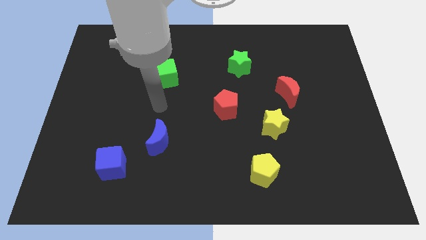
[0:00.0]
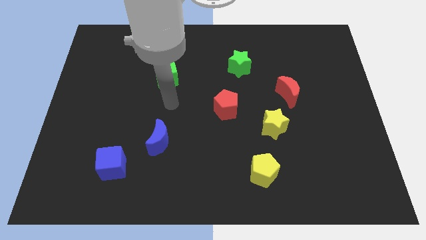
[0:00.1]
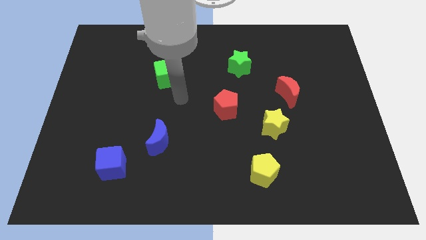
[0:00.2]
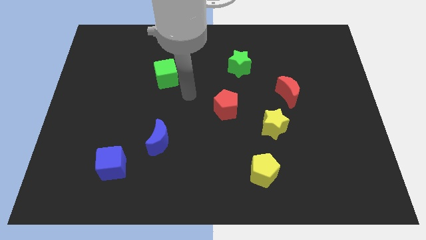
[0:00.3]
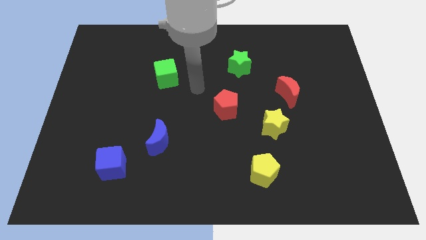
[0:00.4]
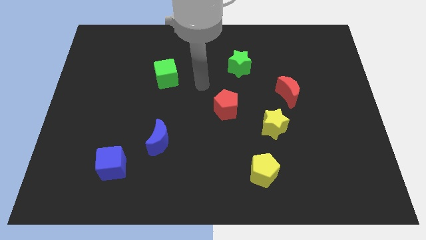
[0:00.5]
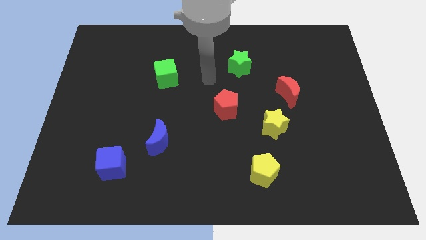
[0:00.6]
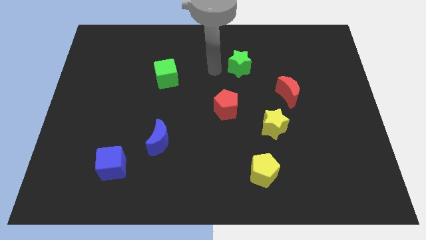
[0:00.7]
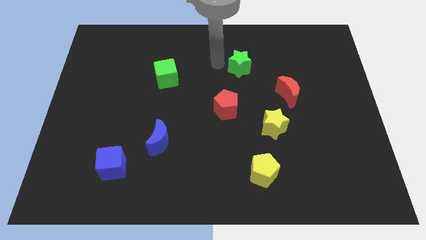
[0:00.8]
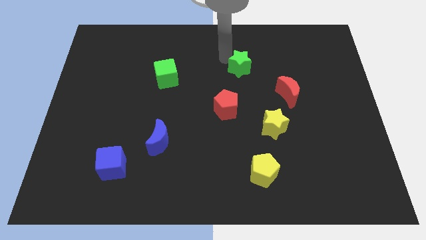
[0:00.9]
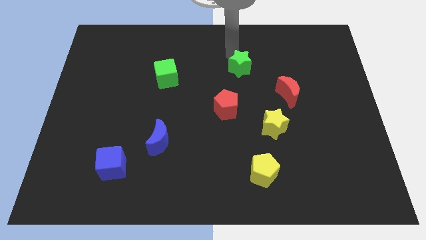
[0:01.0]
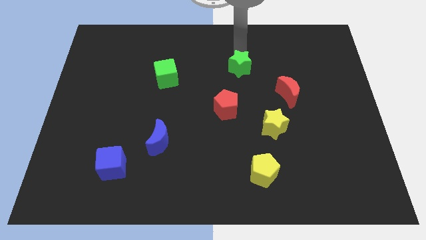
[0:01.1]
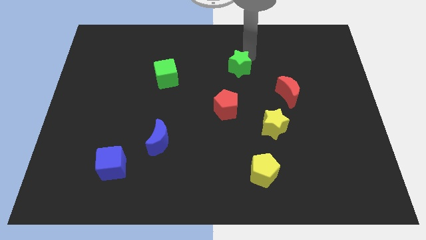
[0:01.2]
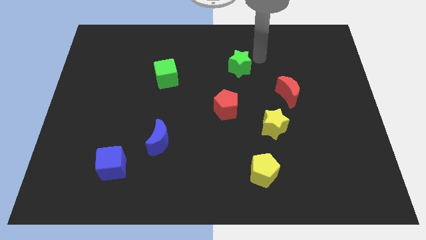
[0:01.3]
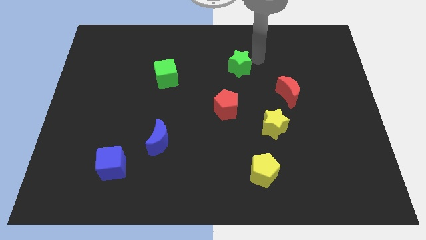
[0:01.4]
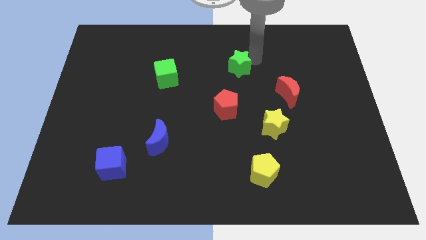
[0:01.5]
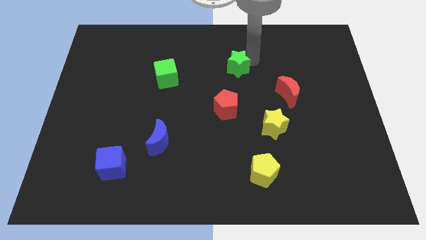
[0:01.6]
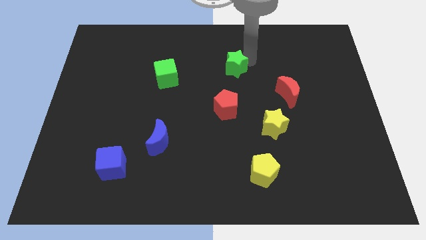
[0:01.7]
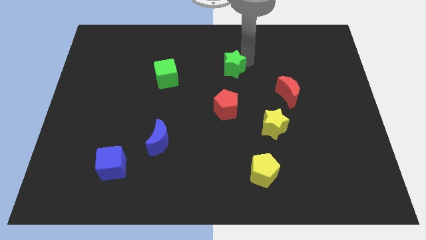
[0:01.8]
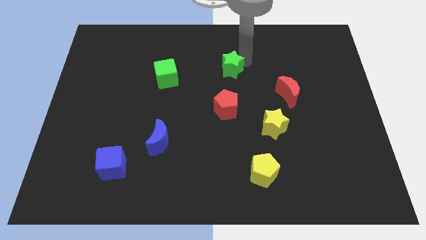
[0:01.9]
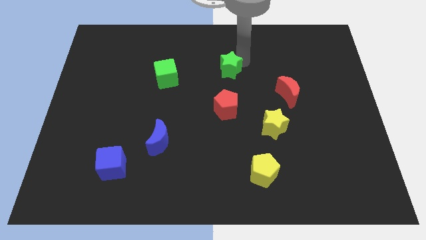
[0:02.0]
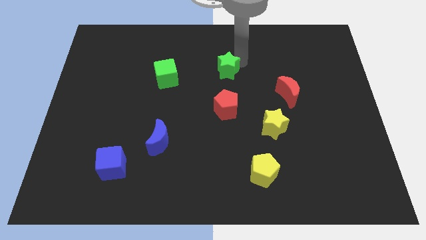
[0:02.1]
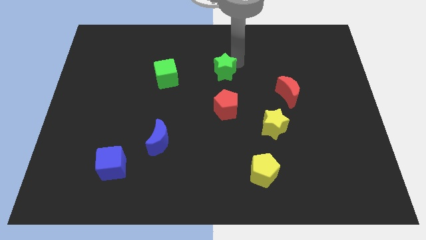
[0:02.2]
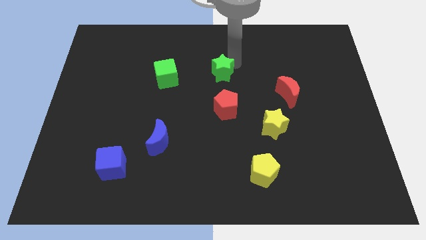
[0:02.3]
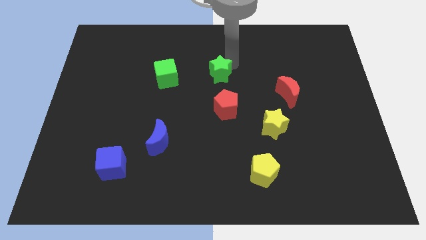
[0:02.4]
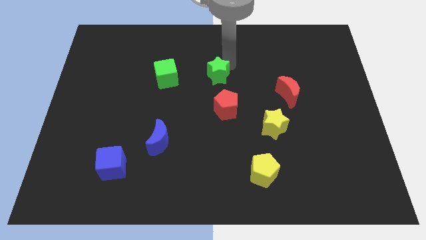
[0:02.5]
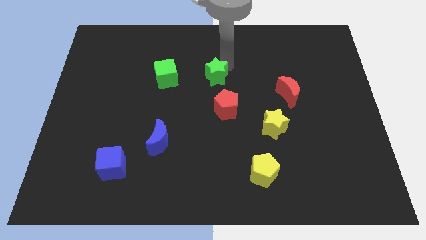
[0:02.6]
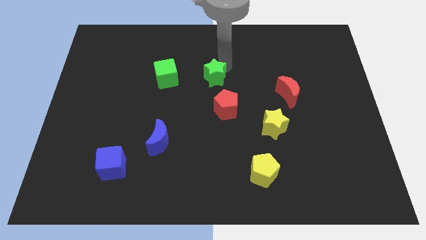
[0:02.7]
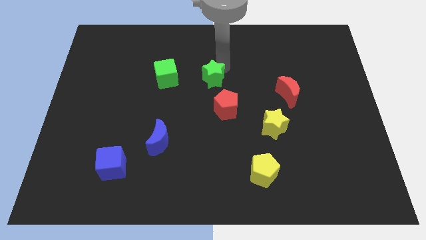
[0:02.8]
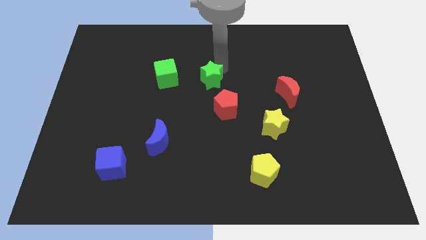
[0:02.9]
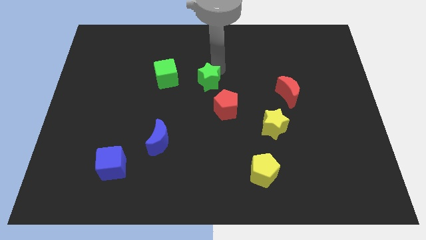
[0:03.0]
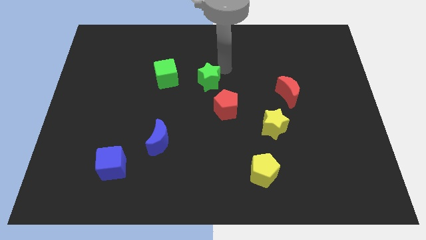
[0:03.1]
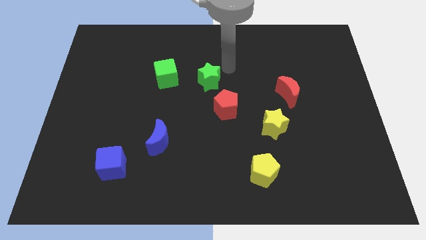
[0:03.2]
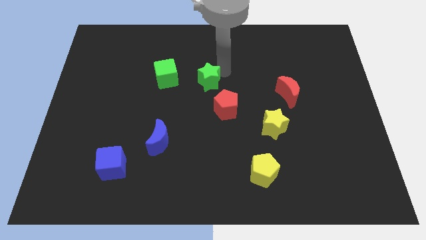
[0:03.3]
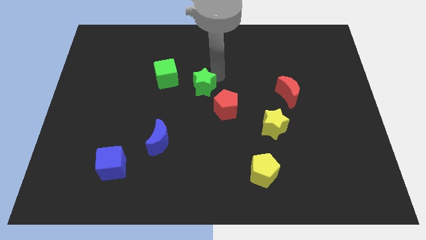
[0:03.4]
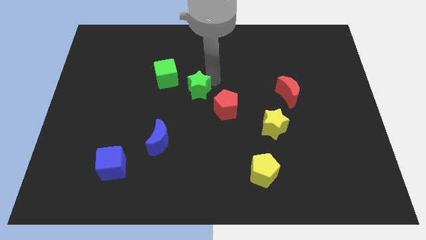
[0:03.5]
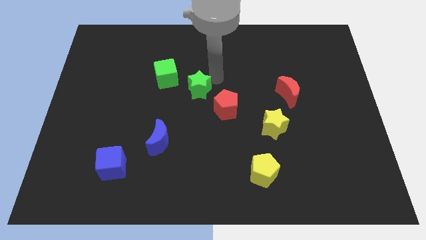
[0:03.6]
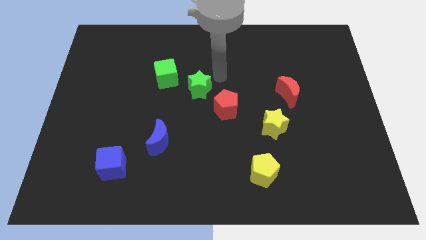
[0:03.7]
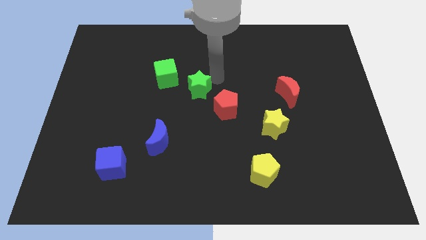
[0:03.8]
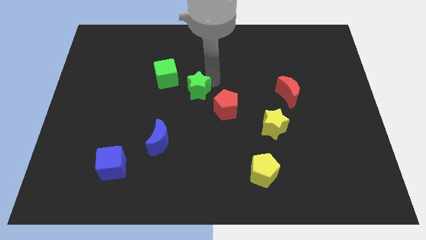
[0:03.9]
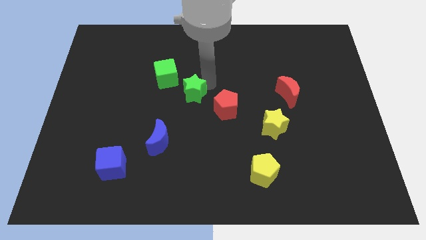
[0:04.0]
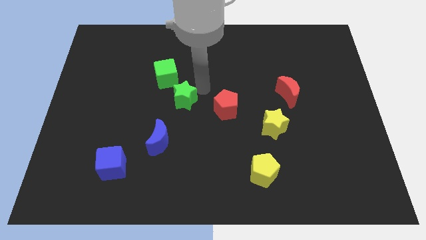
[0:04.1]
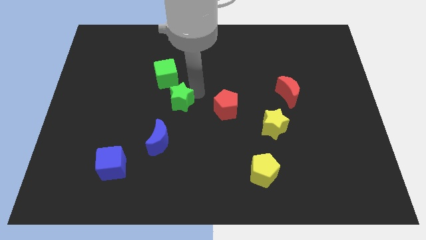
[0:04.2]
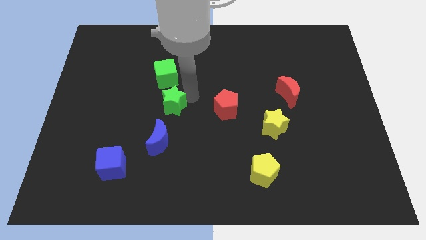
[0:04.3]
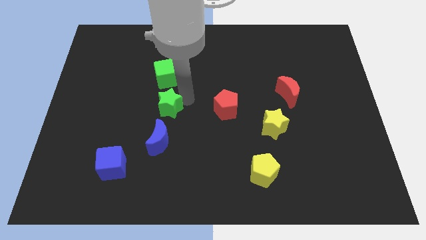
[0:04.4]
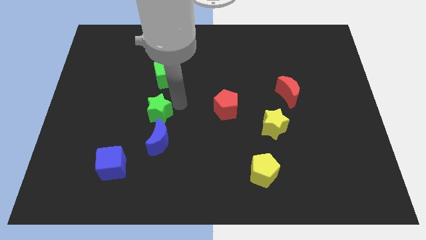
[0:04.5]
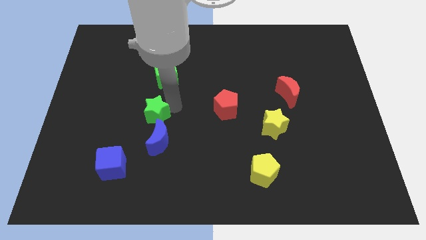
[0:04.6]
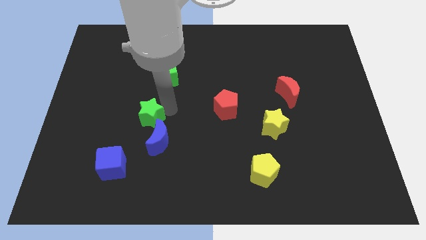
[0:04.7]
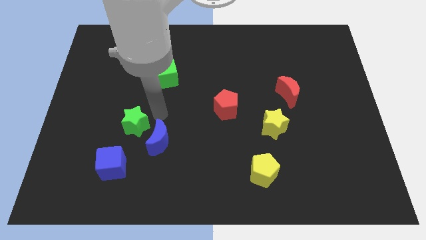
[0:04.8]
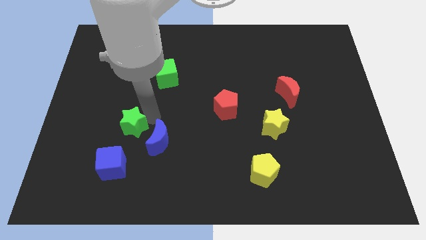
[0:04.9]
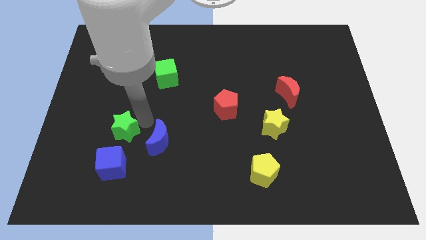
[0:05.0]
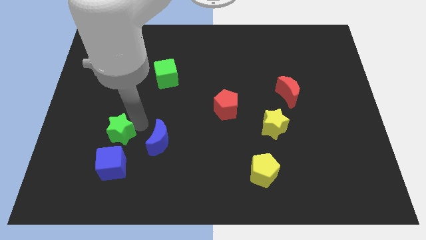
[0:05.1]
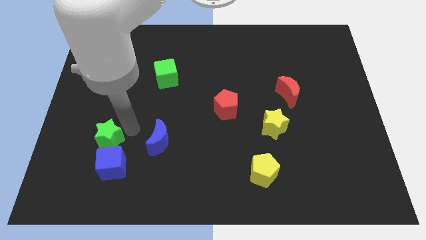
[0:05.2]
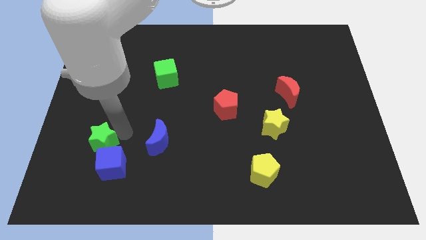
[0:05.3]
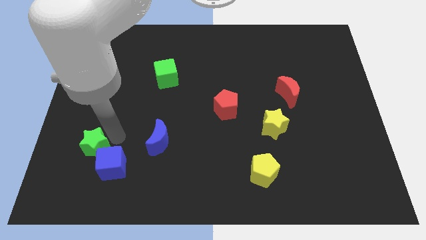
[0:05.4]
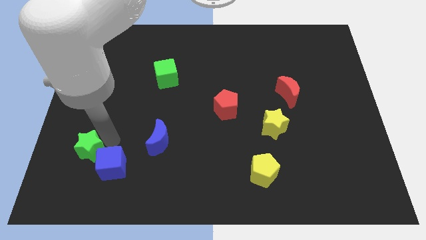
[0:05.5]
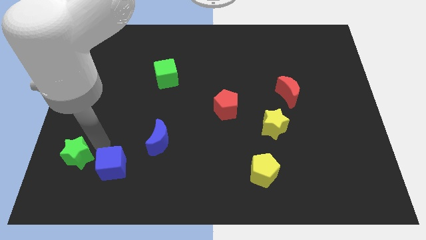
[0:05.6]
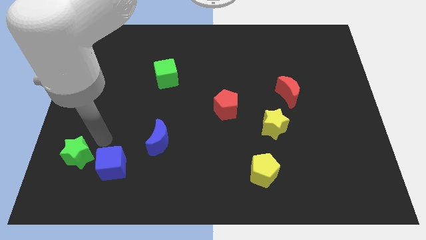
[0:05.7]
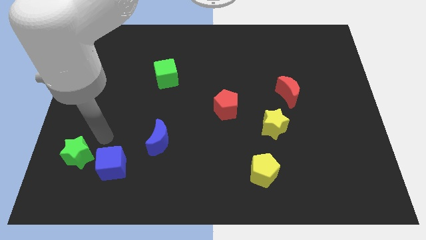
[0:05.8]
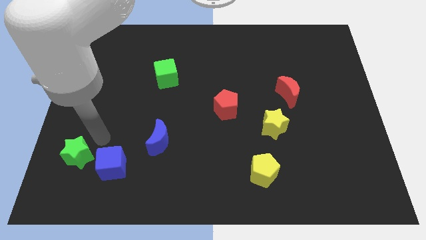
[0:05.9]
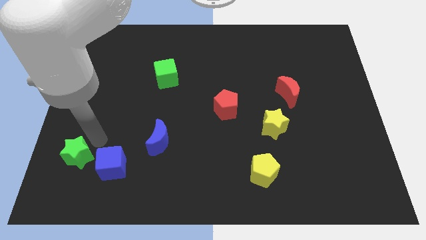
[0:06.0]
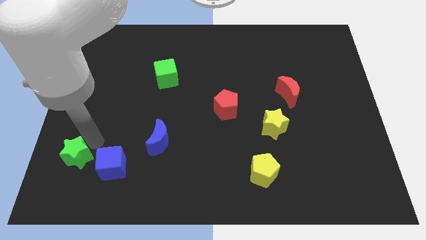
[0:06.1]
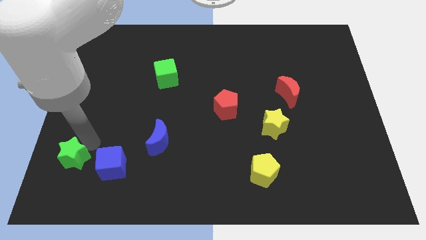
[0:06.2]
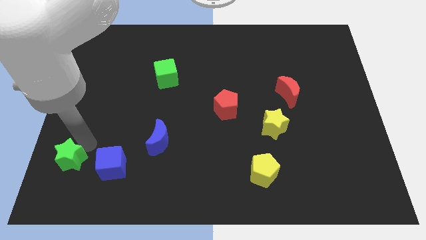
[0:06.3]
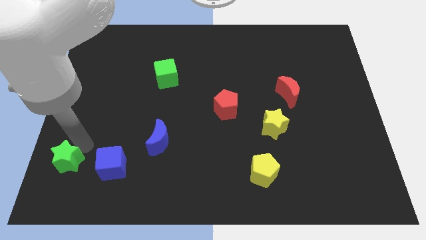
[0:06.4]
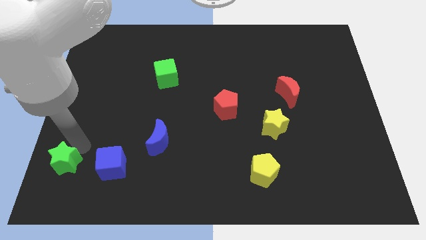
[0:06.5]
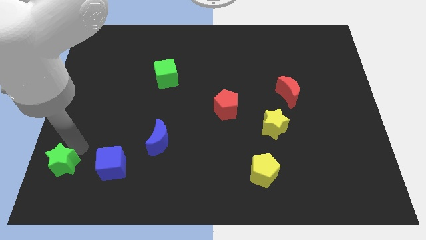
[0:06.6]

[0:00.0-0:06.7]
slide the green star to the bottom left corner
